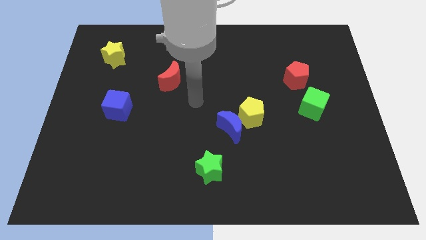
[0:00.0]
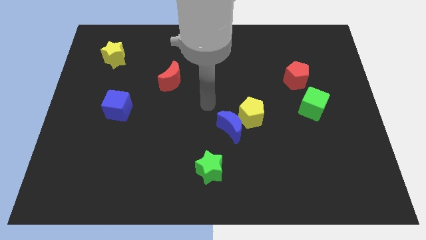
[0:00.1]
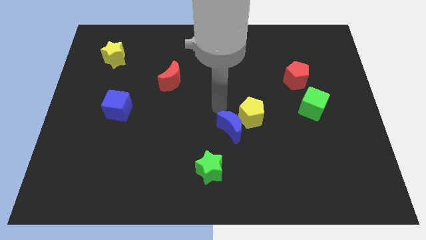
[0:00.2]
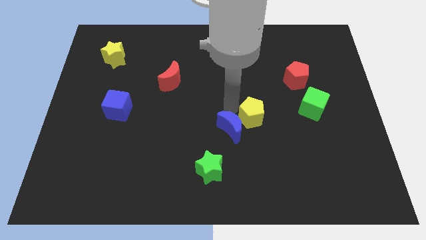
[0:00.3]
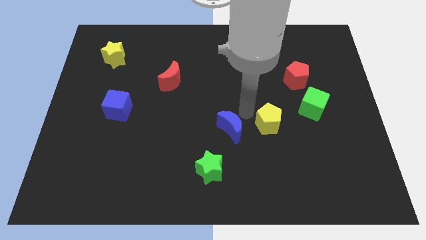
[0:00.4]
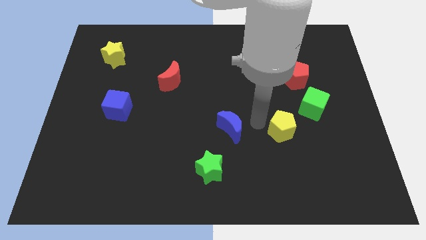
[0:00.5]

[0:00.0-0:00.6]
separate the blue moon from the yellow pentagon

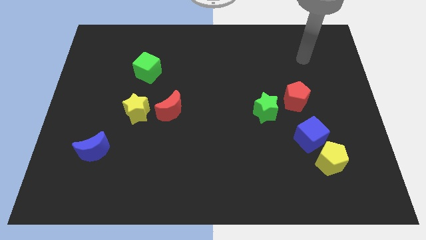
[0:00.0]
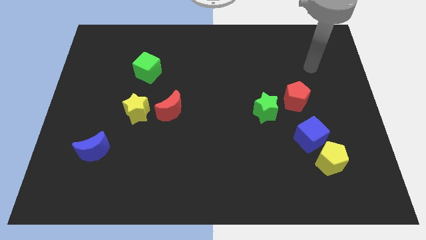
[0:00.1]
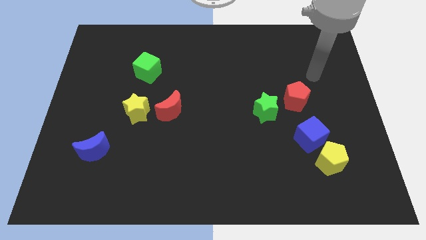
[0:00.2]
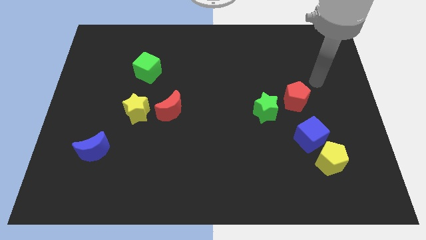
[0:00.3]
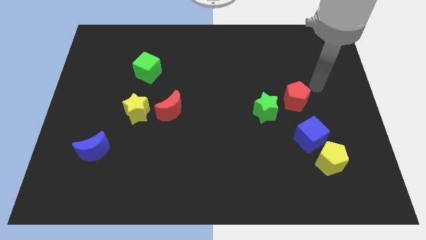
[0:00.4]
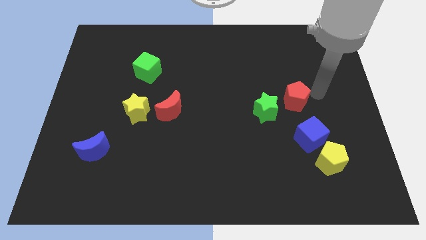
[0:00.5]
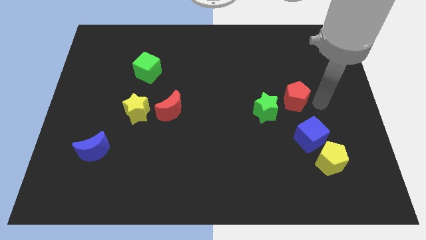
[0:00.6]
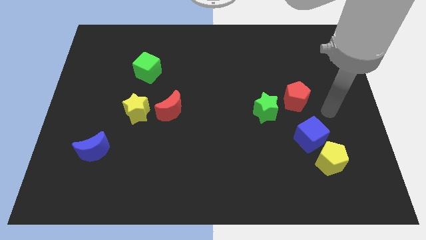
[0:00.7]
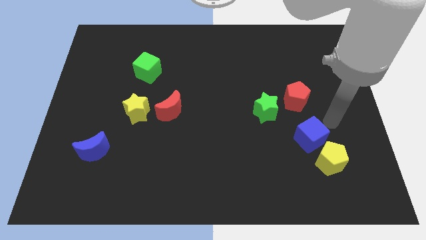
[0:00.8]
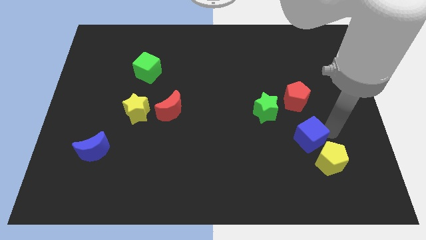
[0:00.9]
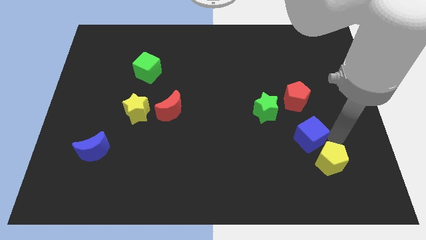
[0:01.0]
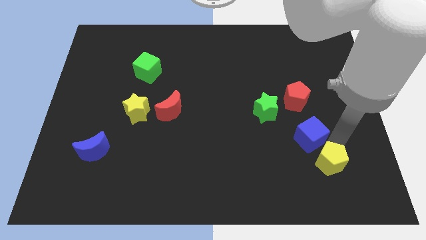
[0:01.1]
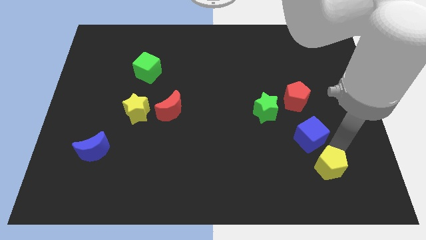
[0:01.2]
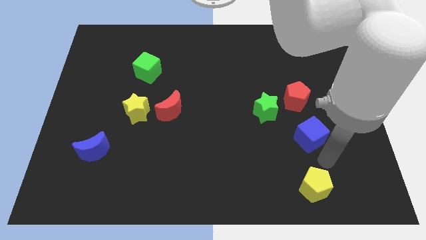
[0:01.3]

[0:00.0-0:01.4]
separate the blue cube from the yellow pentagon

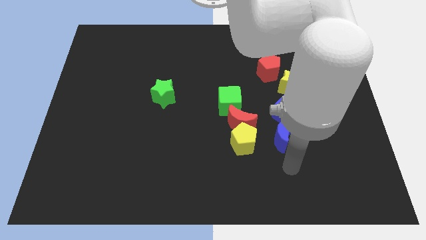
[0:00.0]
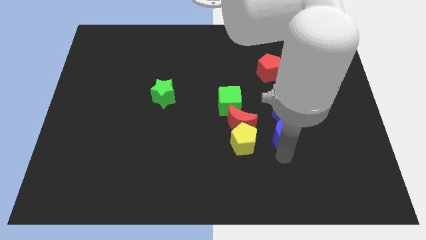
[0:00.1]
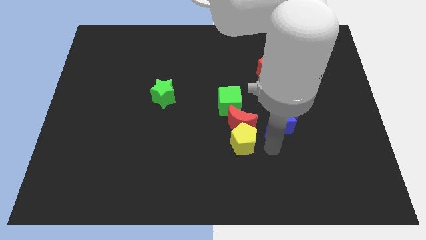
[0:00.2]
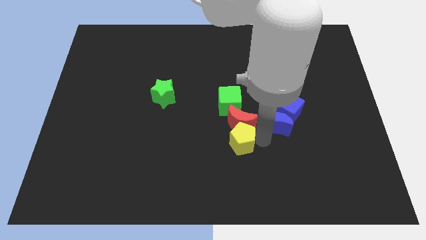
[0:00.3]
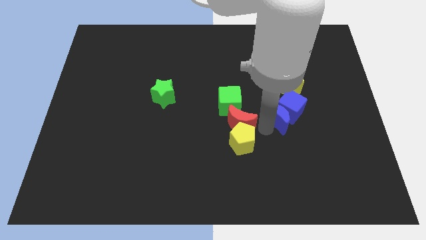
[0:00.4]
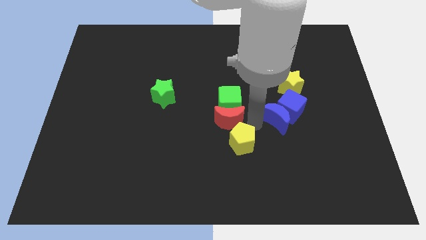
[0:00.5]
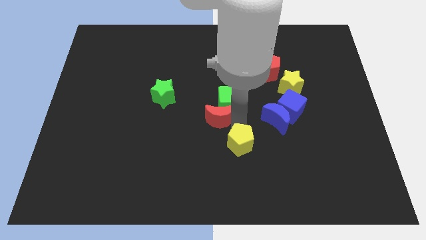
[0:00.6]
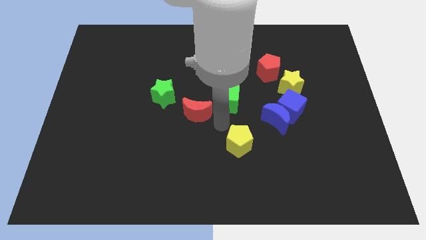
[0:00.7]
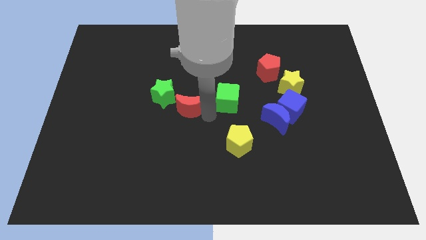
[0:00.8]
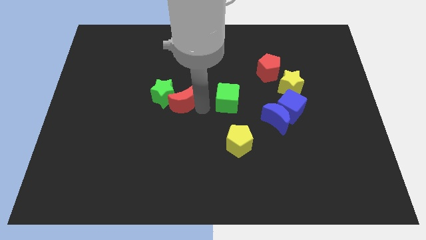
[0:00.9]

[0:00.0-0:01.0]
pull the green cube apart from the red moon

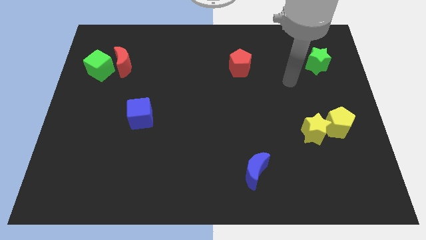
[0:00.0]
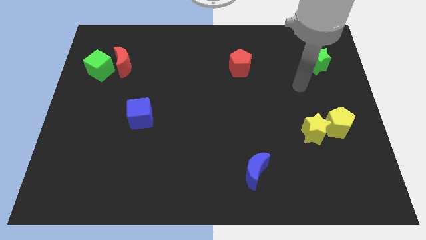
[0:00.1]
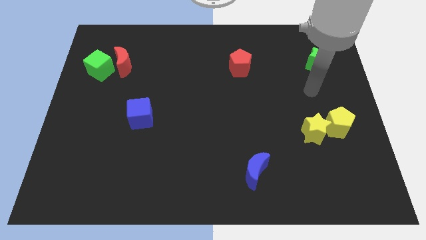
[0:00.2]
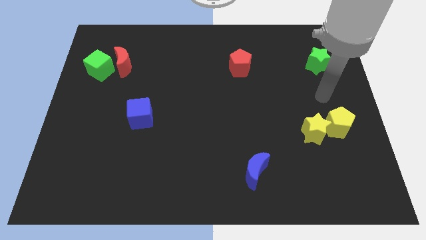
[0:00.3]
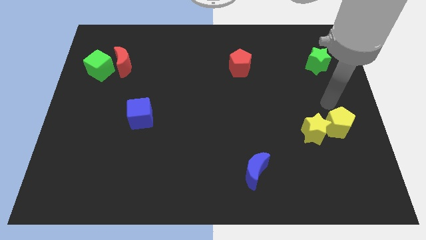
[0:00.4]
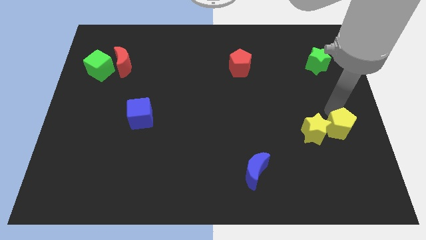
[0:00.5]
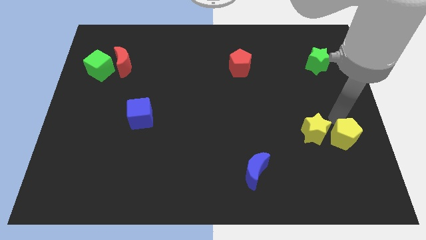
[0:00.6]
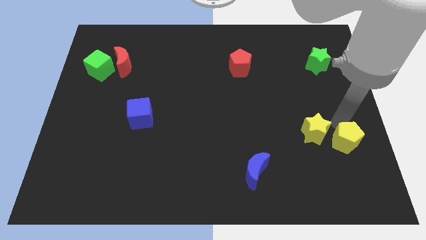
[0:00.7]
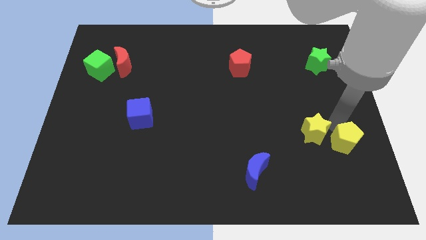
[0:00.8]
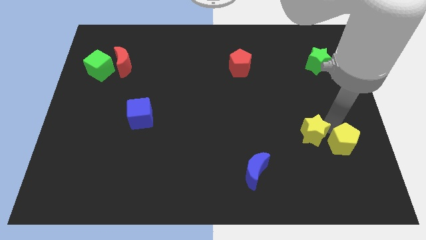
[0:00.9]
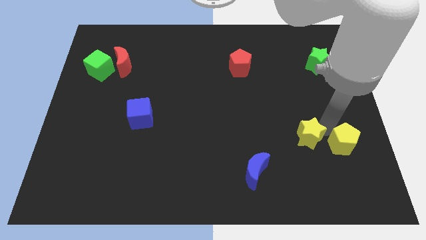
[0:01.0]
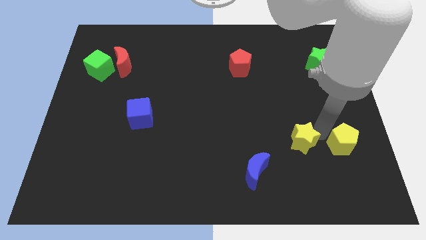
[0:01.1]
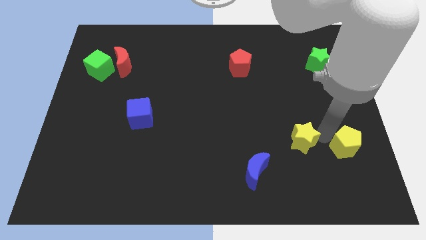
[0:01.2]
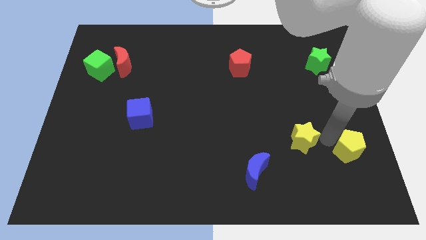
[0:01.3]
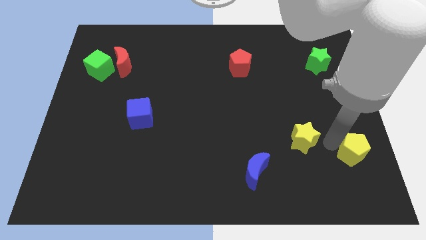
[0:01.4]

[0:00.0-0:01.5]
pull the yellow star apart from the yellow pentagon

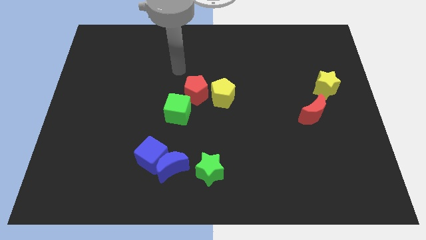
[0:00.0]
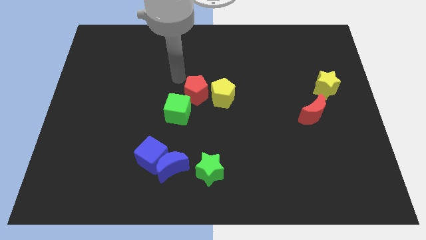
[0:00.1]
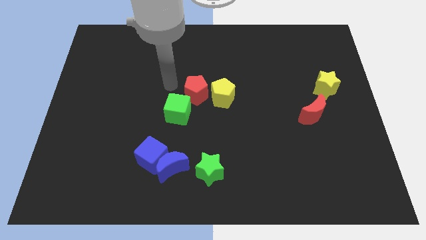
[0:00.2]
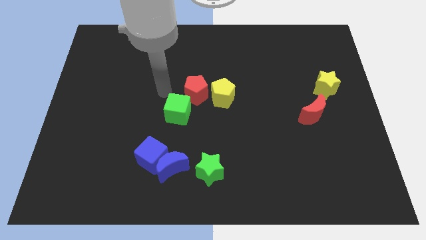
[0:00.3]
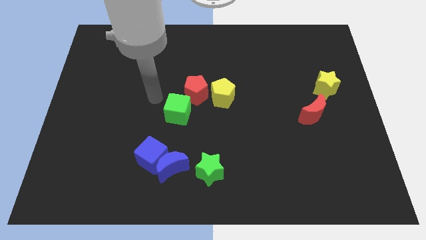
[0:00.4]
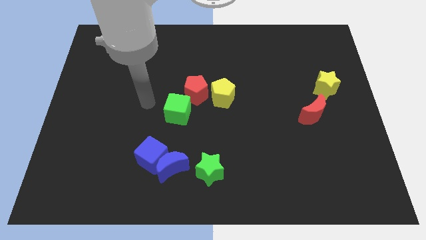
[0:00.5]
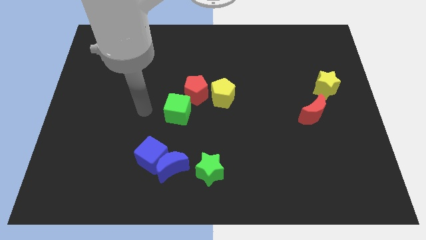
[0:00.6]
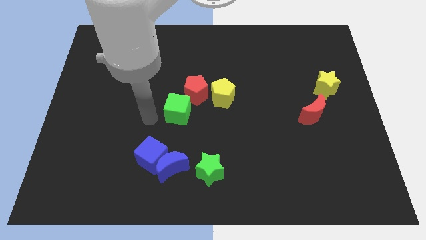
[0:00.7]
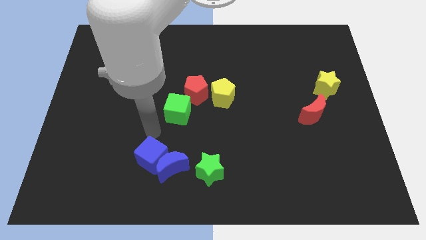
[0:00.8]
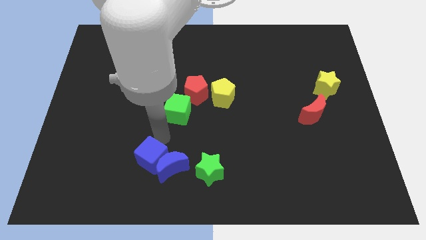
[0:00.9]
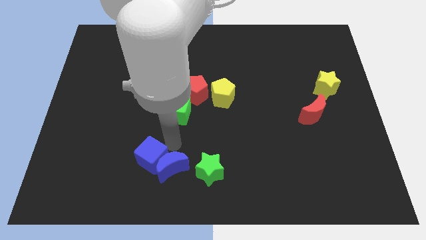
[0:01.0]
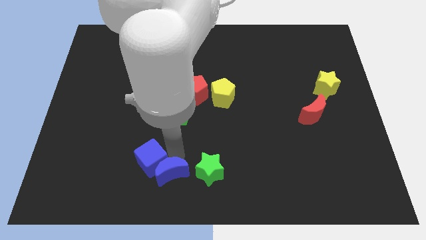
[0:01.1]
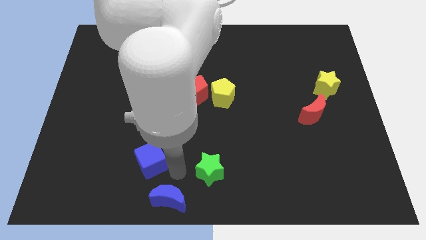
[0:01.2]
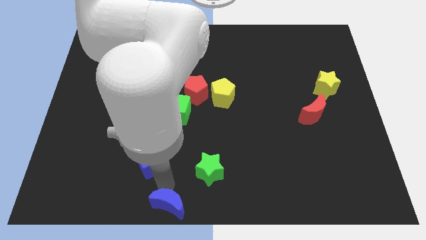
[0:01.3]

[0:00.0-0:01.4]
pull the blue cube apart from the blue moon

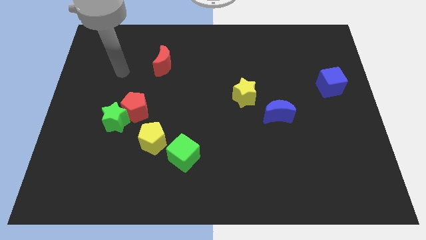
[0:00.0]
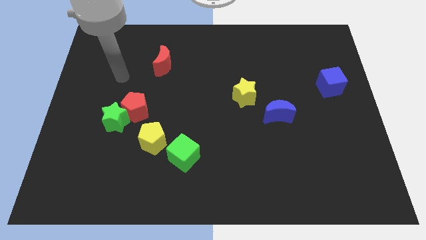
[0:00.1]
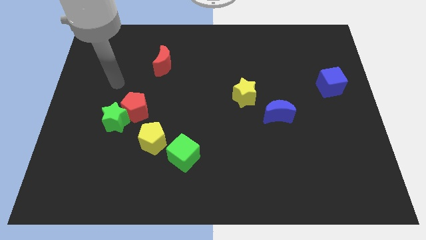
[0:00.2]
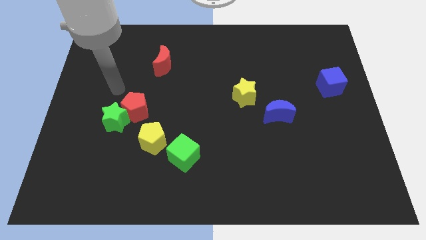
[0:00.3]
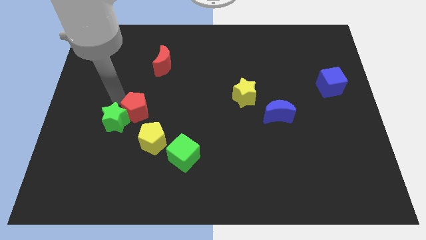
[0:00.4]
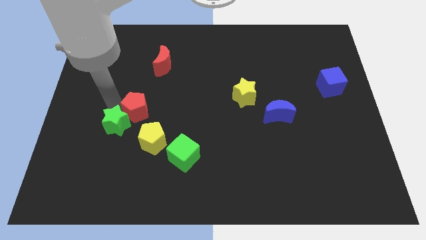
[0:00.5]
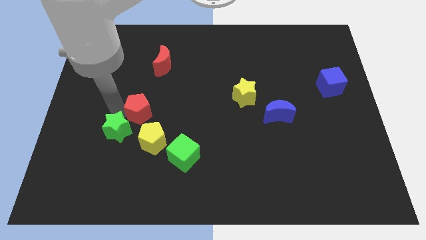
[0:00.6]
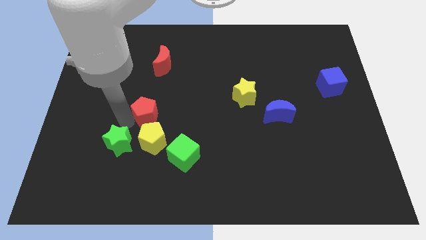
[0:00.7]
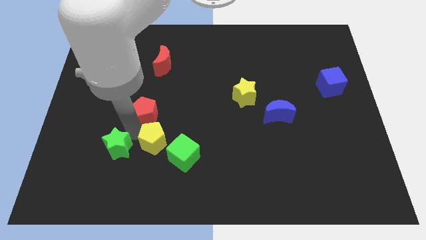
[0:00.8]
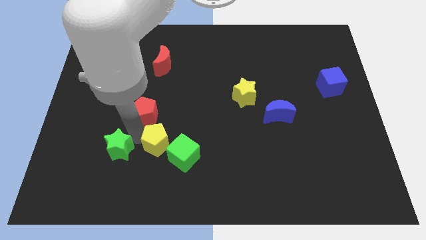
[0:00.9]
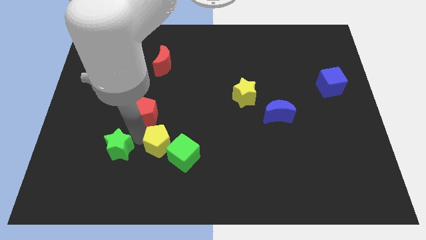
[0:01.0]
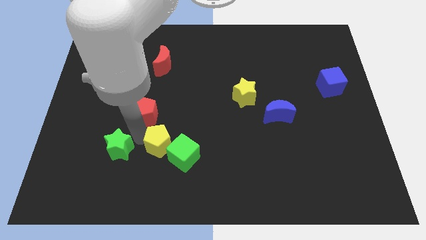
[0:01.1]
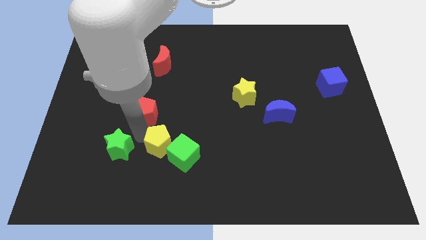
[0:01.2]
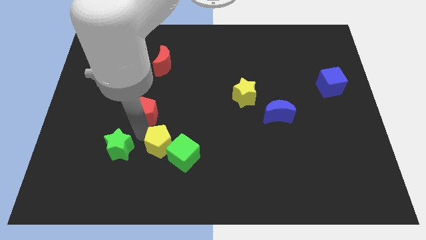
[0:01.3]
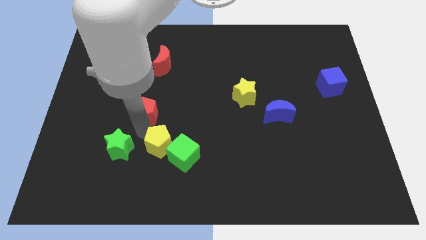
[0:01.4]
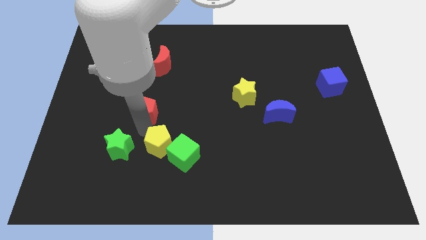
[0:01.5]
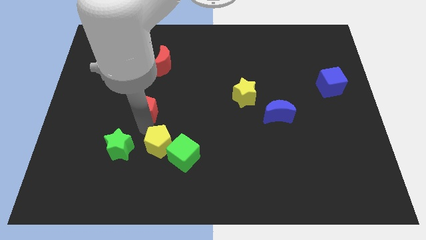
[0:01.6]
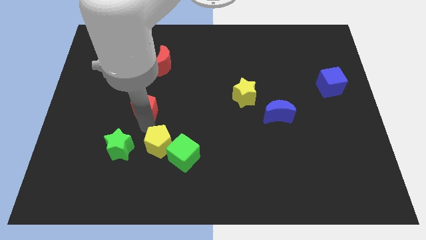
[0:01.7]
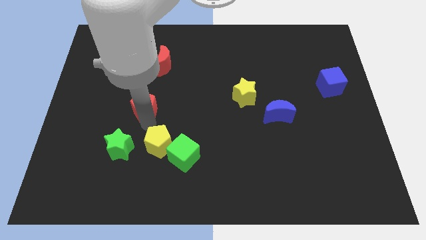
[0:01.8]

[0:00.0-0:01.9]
separate the red pentagon from the green star and yellow pentagon

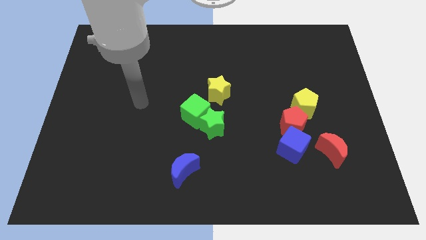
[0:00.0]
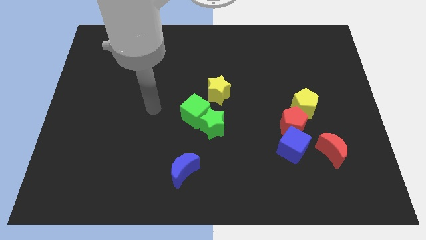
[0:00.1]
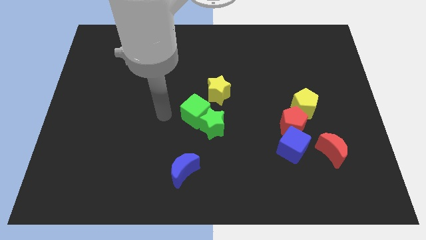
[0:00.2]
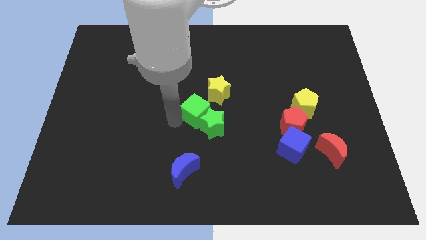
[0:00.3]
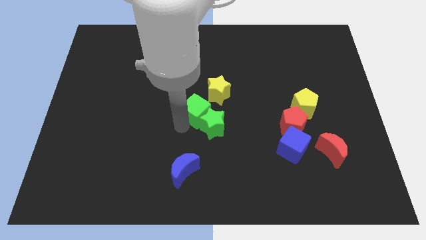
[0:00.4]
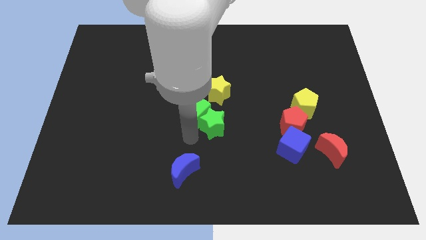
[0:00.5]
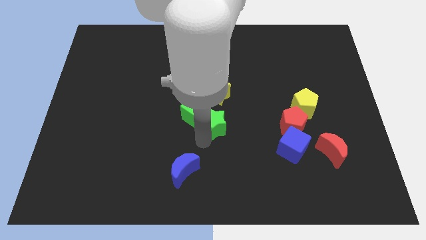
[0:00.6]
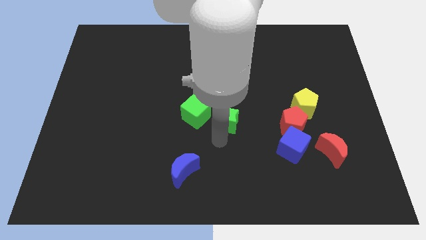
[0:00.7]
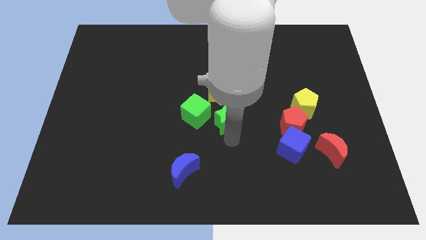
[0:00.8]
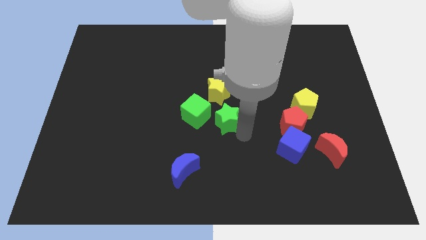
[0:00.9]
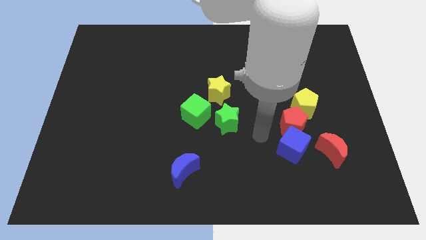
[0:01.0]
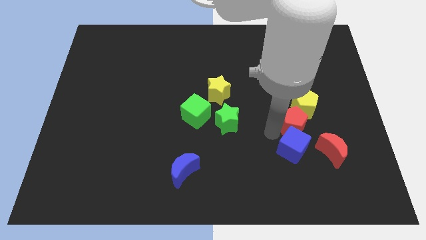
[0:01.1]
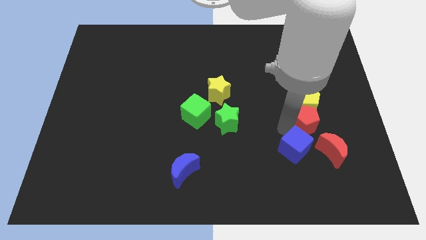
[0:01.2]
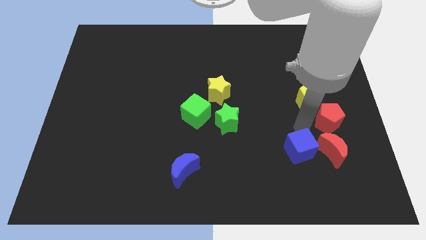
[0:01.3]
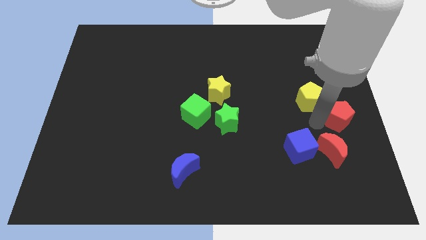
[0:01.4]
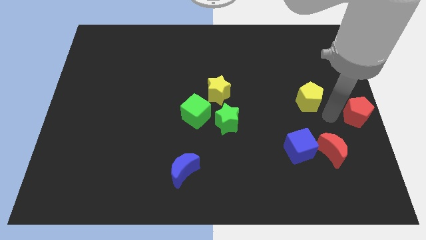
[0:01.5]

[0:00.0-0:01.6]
pull the yellow pentagon apart from the red pentagon

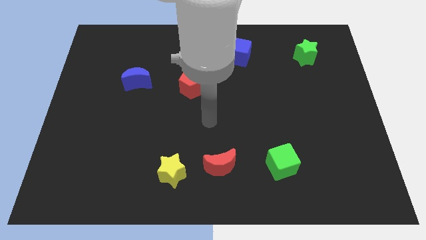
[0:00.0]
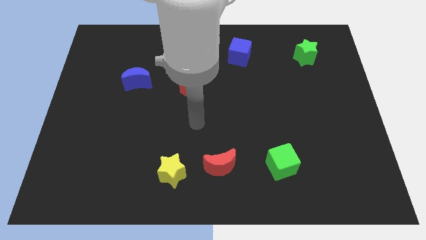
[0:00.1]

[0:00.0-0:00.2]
pull the red moon apart from the yellow star
